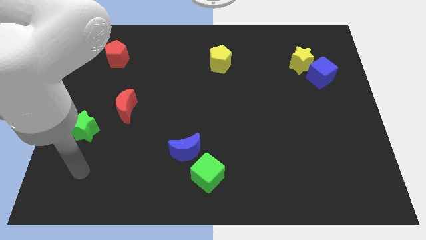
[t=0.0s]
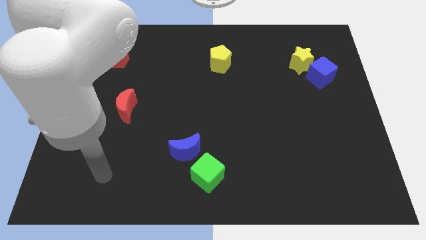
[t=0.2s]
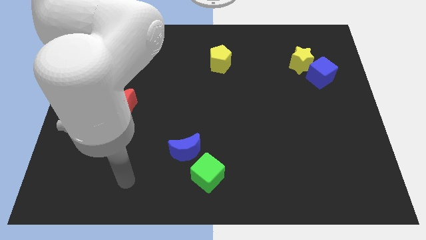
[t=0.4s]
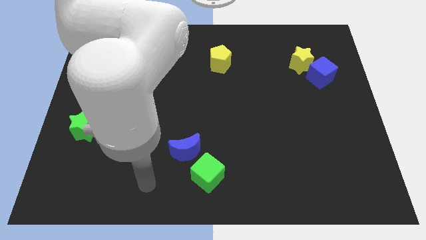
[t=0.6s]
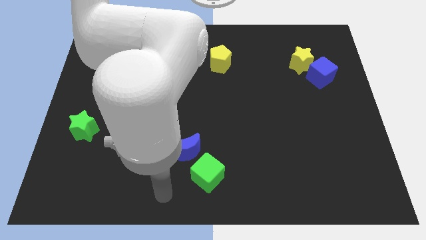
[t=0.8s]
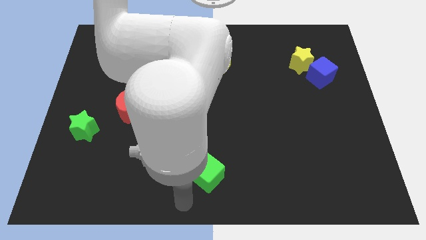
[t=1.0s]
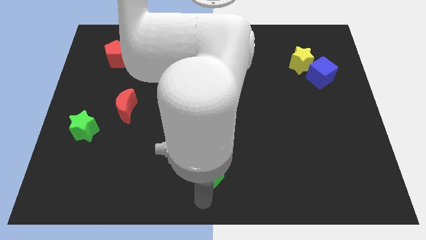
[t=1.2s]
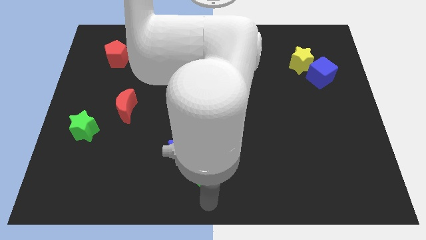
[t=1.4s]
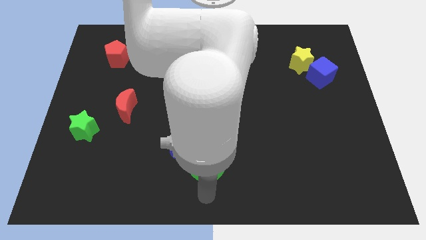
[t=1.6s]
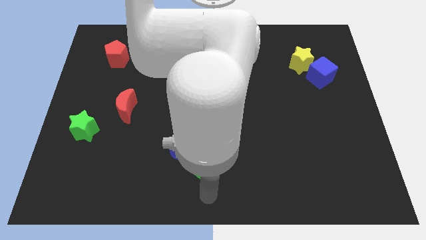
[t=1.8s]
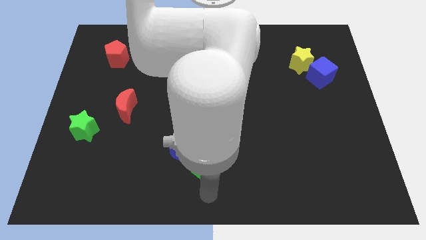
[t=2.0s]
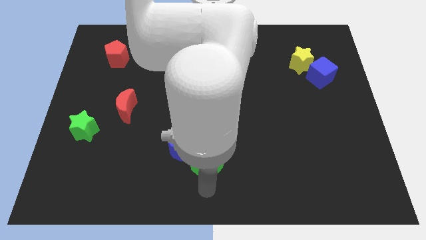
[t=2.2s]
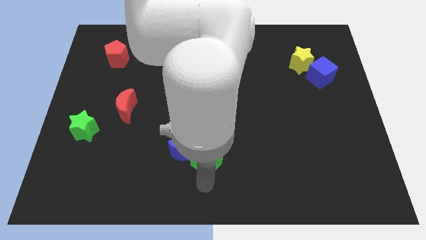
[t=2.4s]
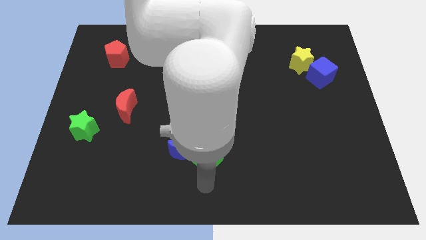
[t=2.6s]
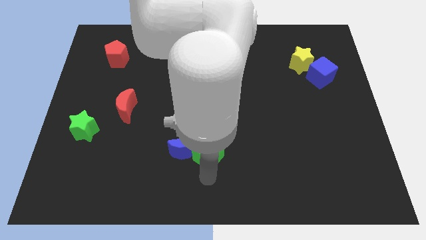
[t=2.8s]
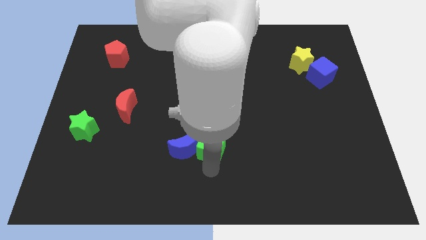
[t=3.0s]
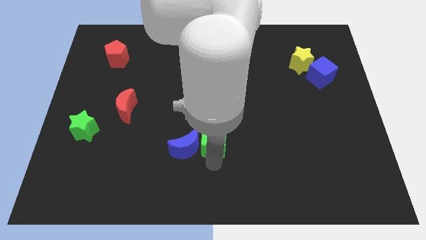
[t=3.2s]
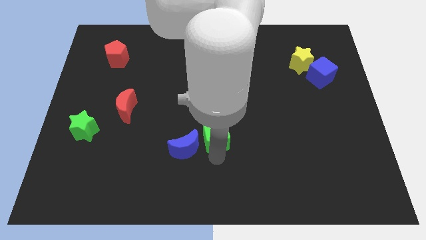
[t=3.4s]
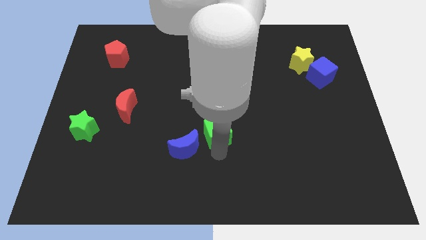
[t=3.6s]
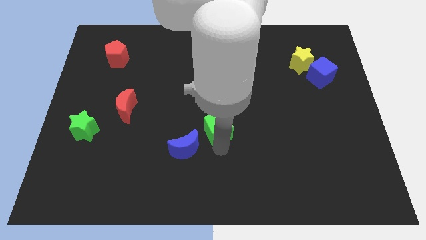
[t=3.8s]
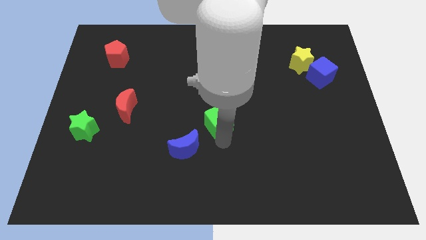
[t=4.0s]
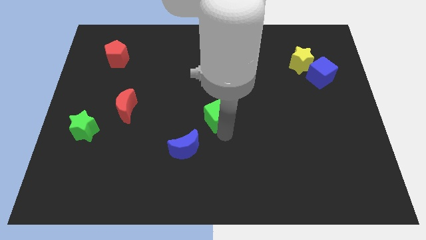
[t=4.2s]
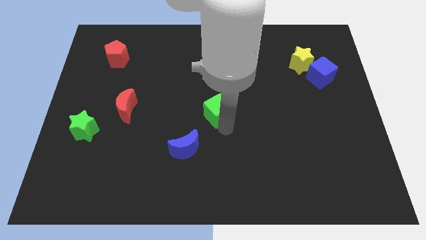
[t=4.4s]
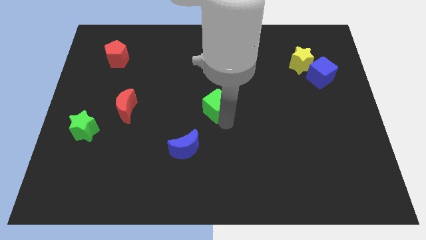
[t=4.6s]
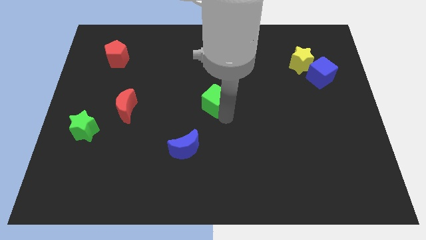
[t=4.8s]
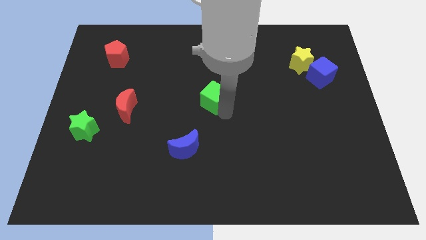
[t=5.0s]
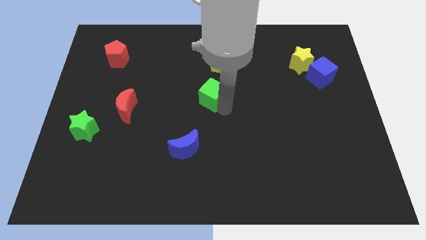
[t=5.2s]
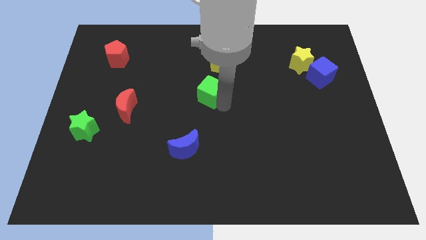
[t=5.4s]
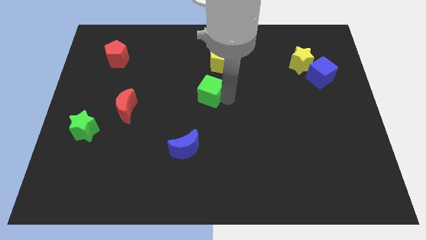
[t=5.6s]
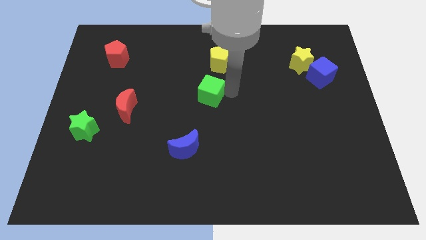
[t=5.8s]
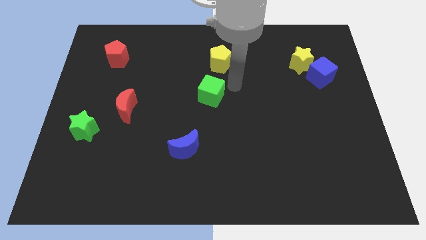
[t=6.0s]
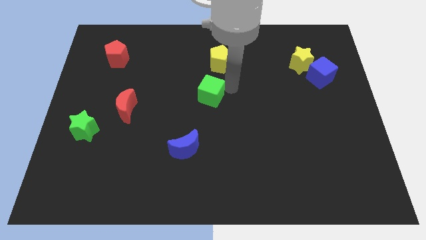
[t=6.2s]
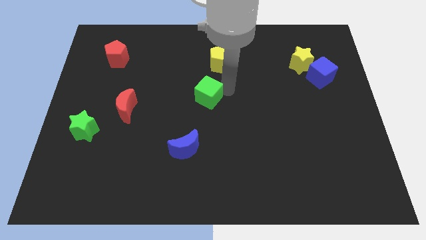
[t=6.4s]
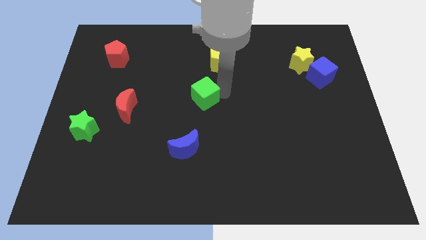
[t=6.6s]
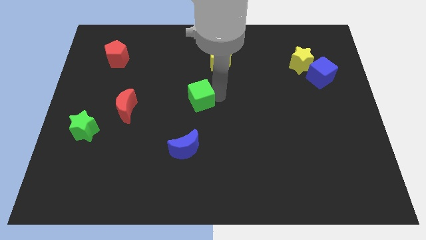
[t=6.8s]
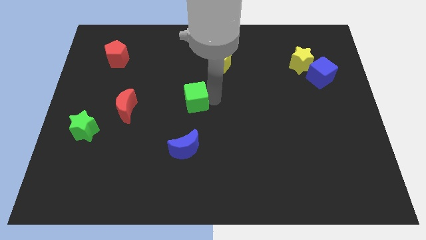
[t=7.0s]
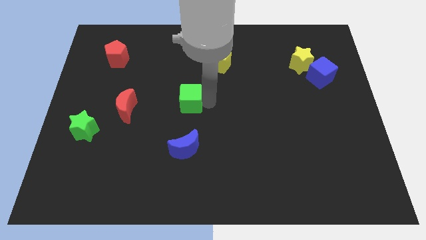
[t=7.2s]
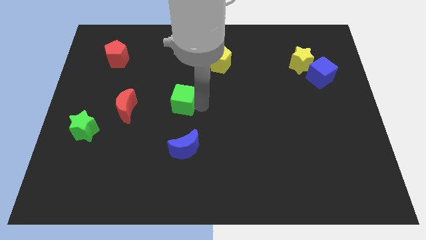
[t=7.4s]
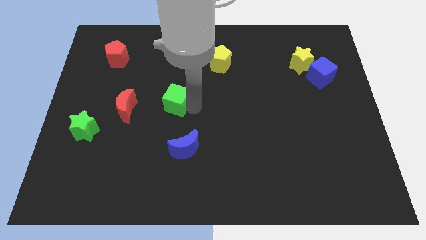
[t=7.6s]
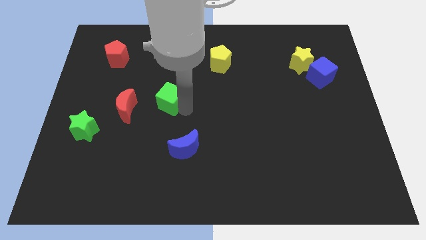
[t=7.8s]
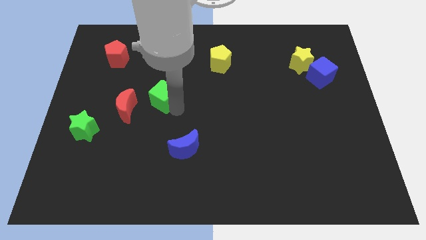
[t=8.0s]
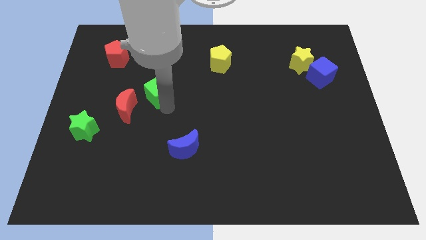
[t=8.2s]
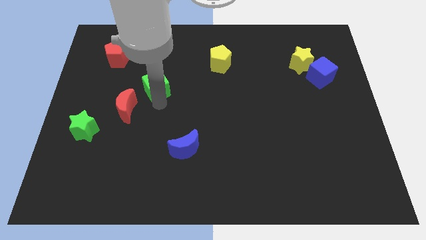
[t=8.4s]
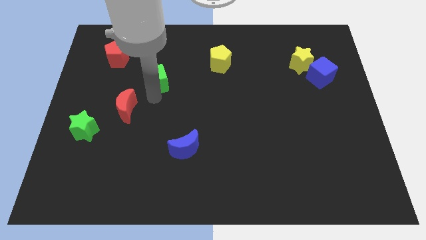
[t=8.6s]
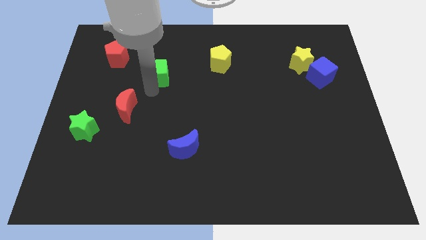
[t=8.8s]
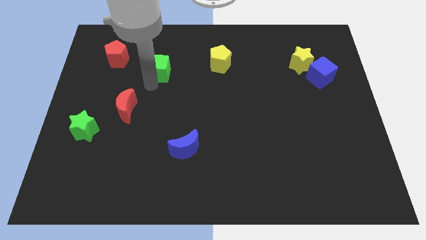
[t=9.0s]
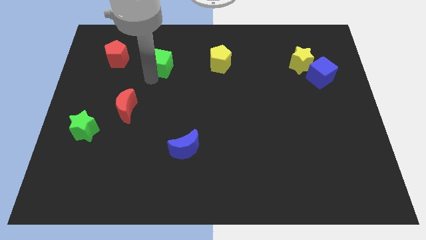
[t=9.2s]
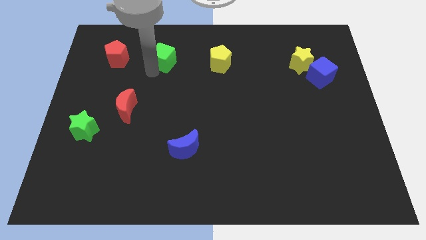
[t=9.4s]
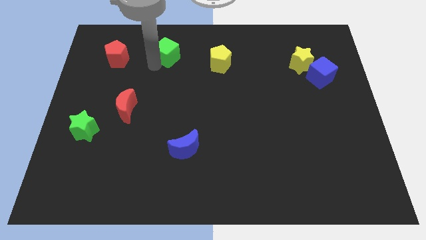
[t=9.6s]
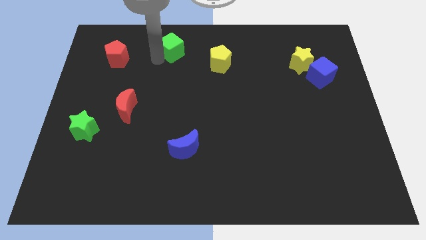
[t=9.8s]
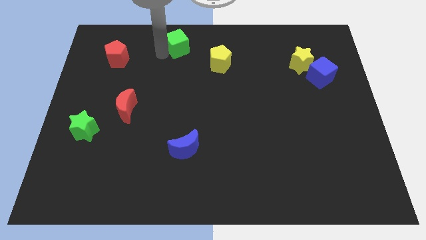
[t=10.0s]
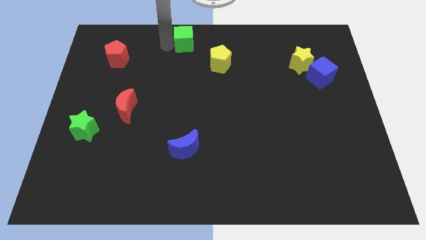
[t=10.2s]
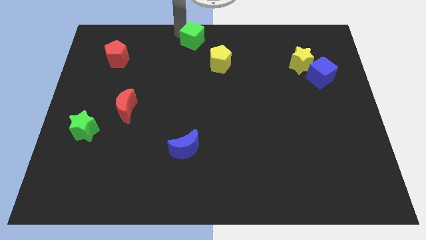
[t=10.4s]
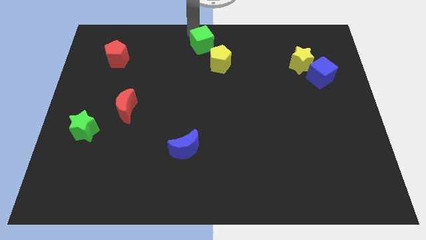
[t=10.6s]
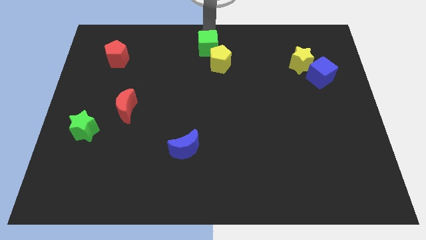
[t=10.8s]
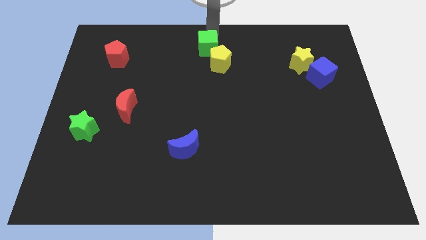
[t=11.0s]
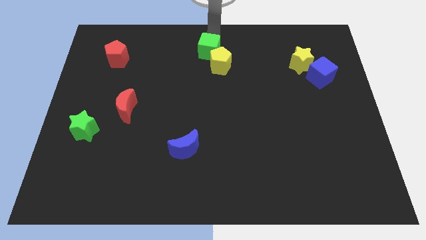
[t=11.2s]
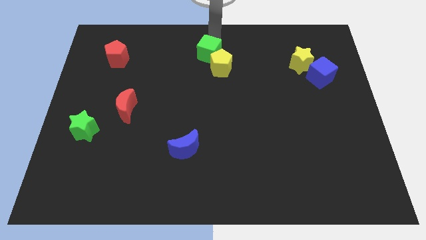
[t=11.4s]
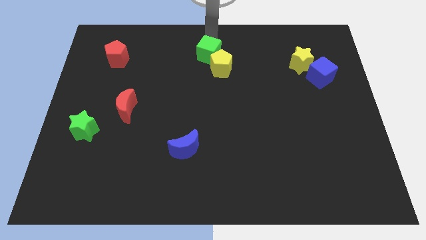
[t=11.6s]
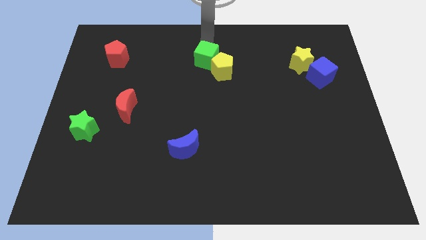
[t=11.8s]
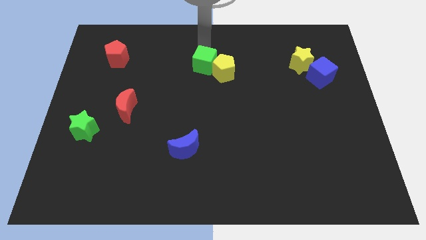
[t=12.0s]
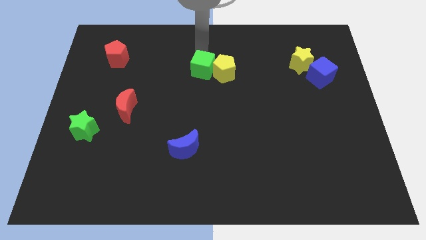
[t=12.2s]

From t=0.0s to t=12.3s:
put the green cube to the bottom left side of the yellow pentagon
